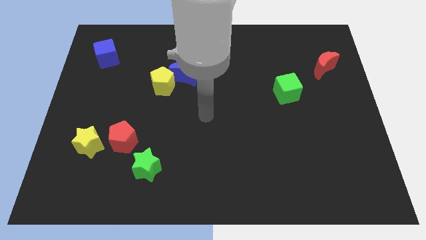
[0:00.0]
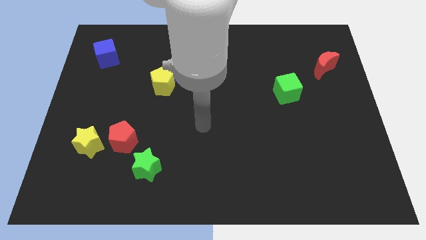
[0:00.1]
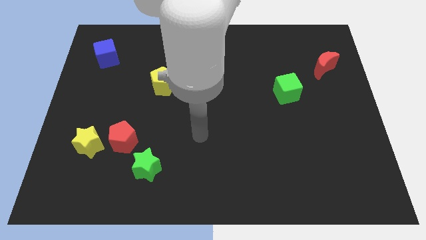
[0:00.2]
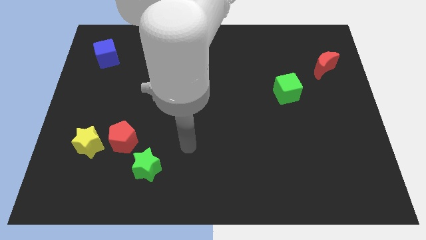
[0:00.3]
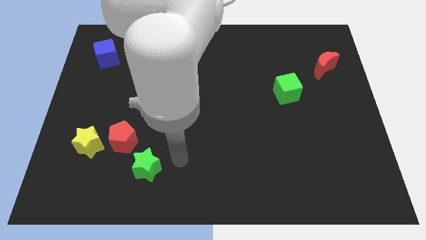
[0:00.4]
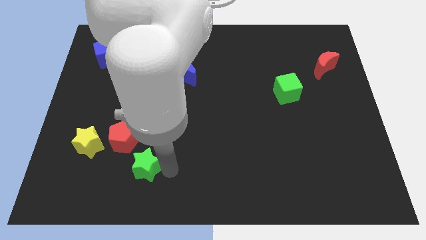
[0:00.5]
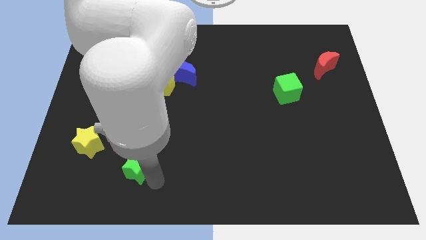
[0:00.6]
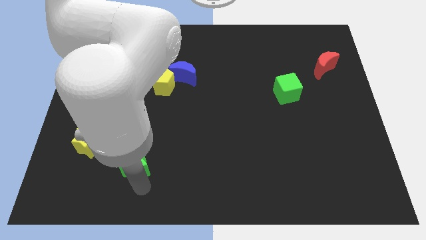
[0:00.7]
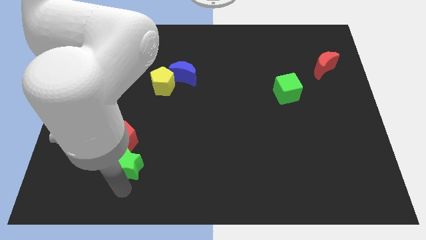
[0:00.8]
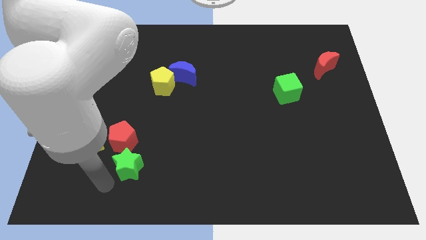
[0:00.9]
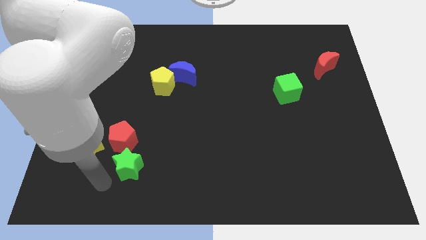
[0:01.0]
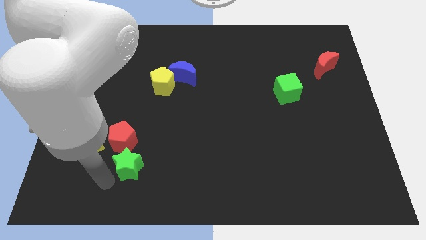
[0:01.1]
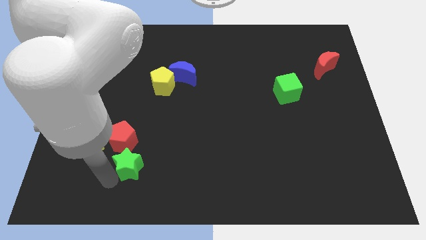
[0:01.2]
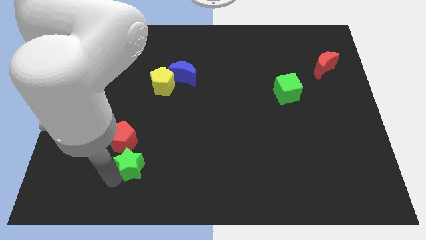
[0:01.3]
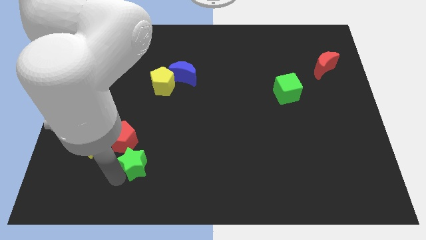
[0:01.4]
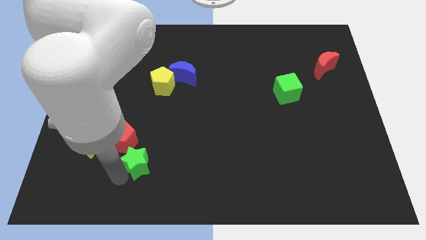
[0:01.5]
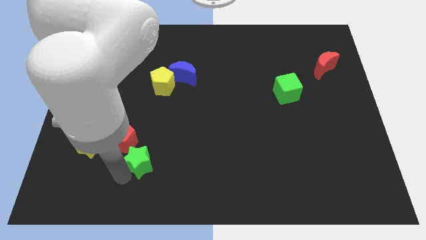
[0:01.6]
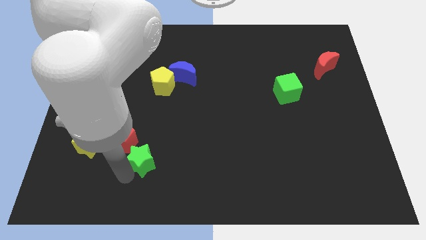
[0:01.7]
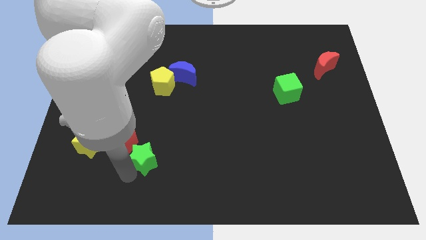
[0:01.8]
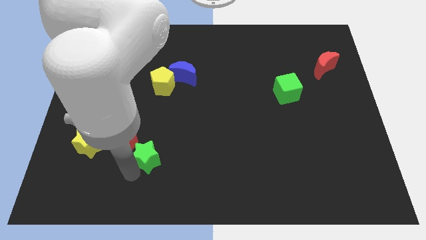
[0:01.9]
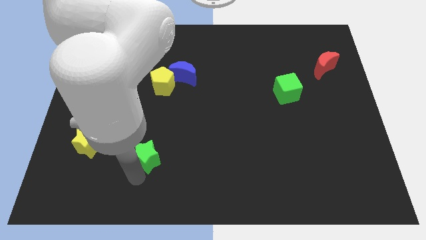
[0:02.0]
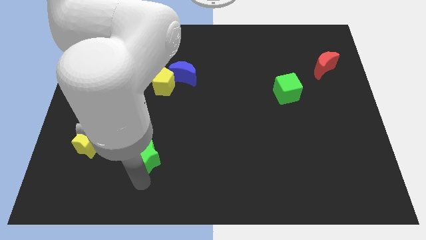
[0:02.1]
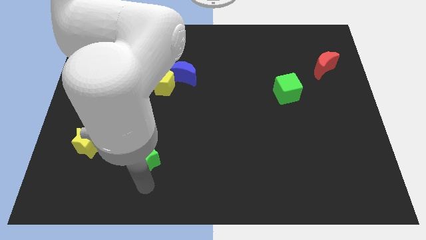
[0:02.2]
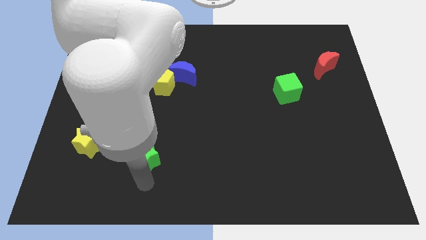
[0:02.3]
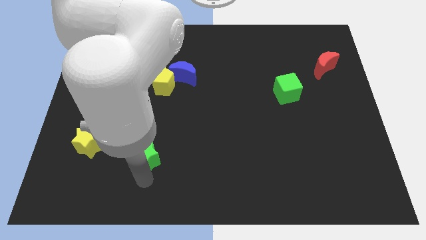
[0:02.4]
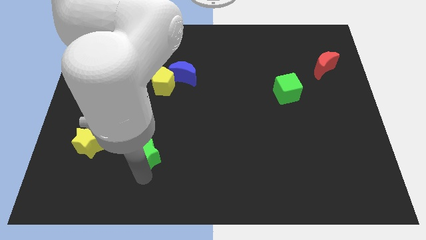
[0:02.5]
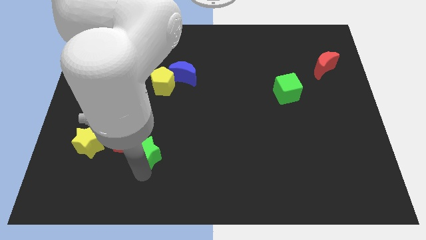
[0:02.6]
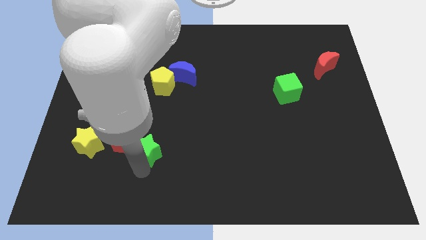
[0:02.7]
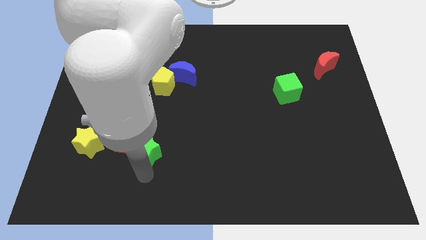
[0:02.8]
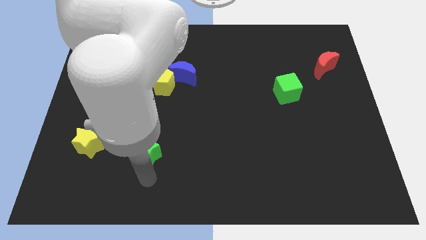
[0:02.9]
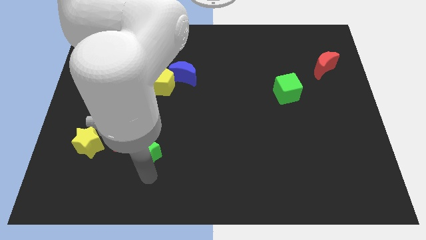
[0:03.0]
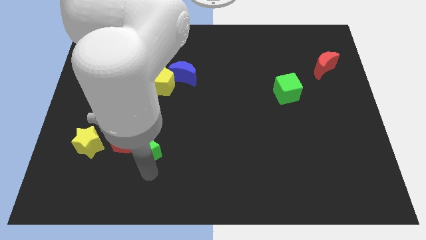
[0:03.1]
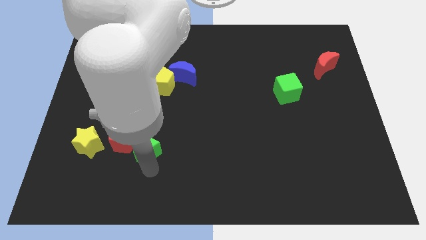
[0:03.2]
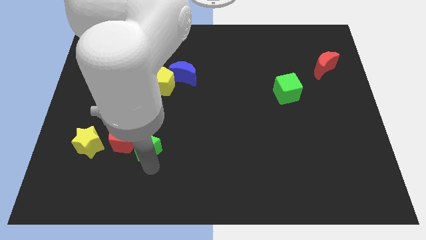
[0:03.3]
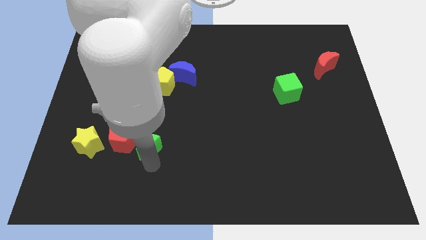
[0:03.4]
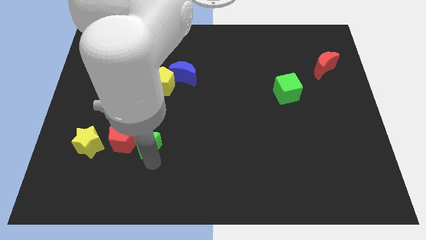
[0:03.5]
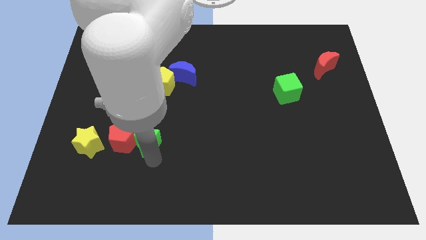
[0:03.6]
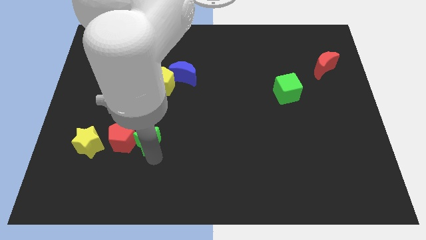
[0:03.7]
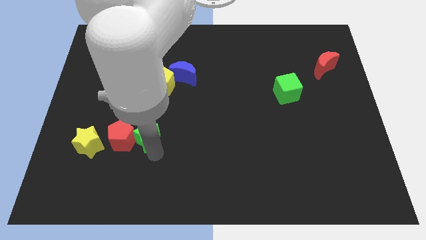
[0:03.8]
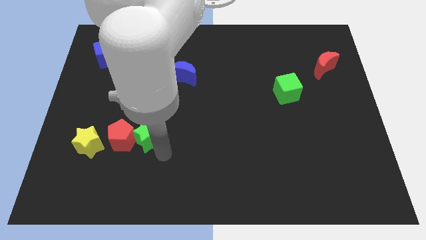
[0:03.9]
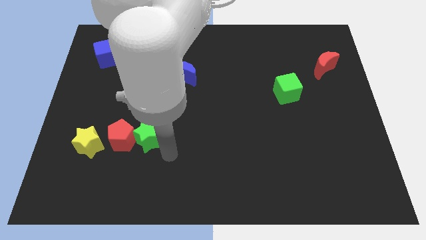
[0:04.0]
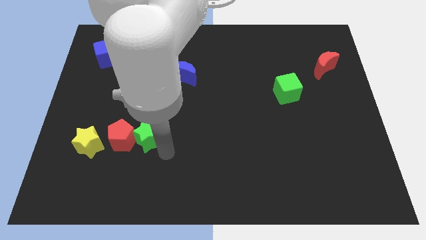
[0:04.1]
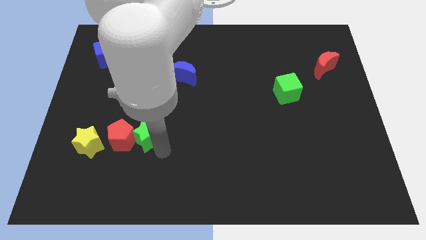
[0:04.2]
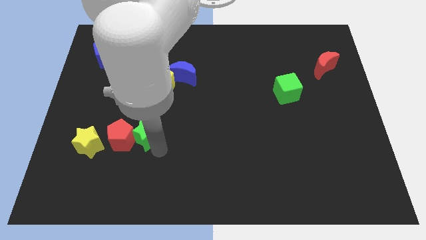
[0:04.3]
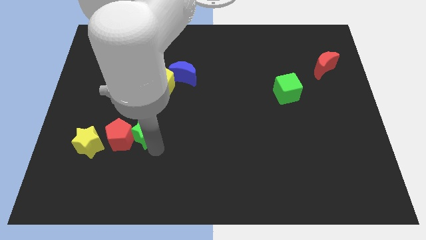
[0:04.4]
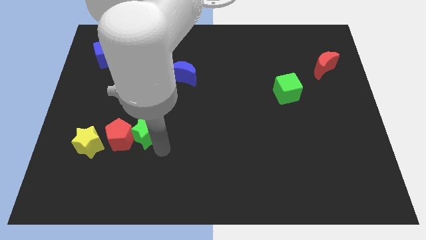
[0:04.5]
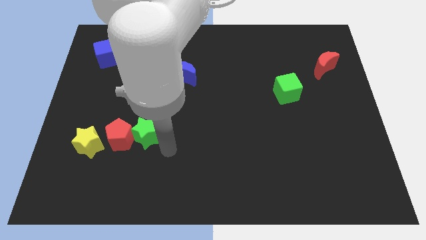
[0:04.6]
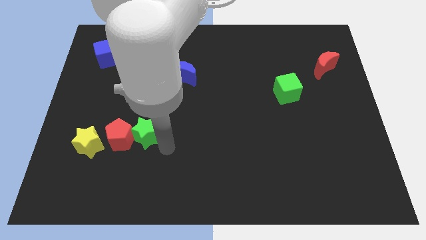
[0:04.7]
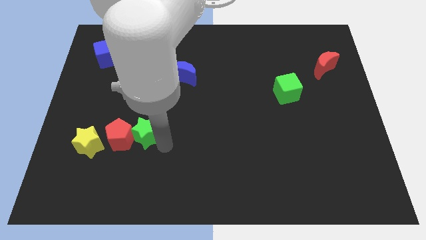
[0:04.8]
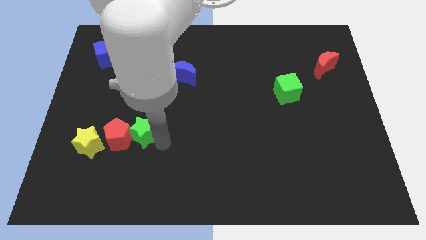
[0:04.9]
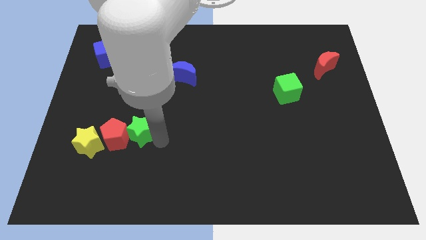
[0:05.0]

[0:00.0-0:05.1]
slightly slide the green star up and to the left

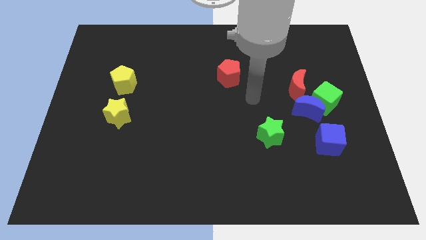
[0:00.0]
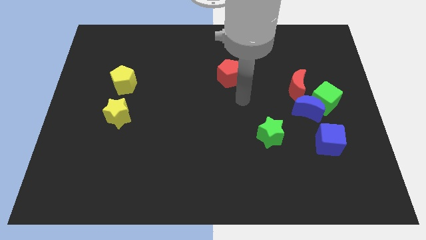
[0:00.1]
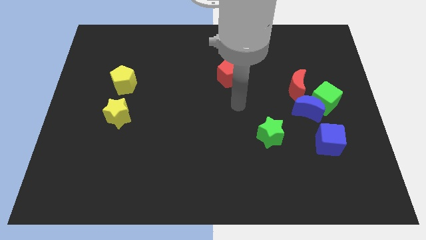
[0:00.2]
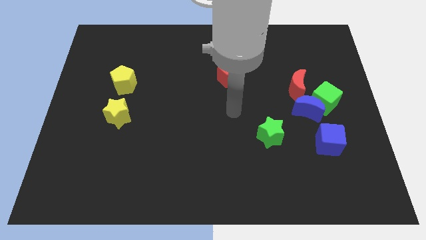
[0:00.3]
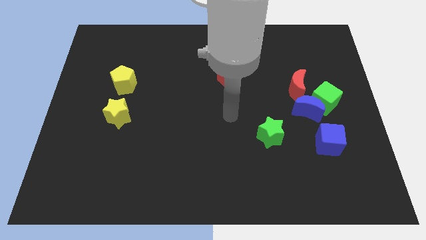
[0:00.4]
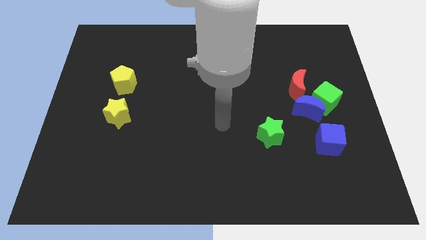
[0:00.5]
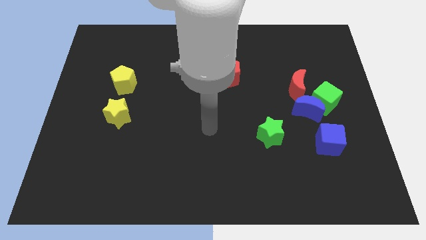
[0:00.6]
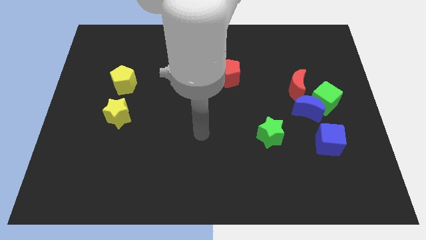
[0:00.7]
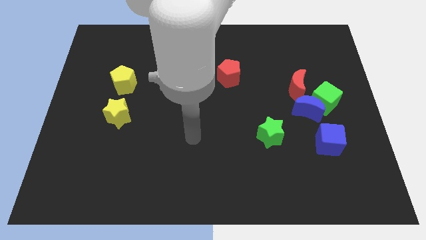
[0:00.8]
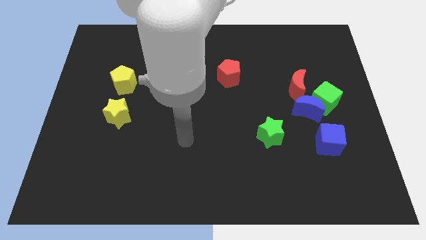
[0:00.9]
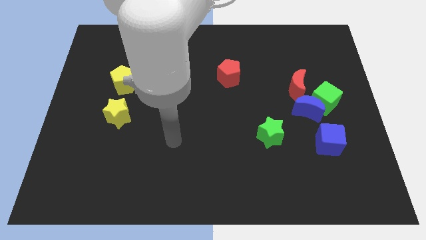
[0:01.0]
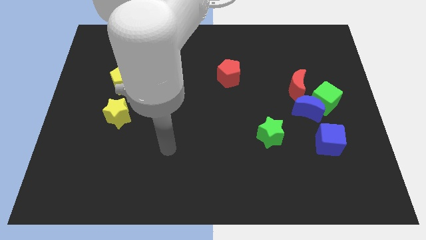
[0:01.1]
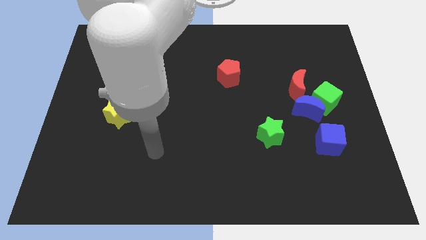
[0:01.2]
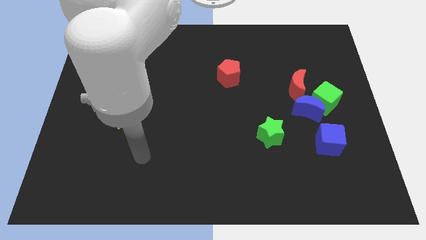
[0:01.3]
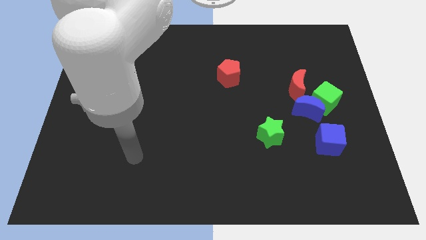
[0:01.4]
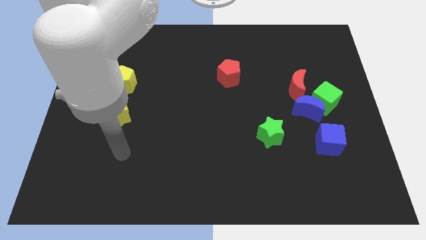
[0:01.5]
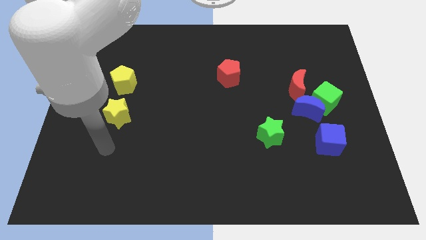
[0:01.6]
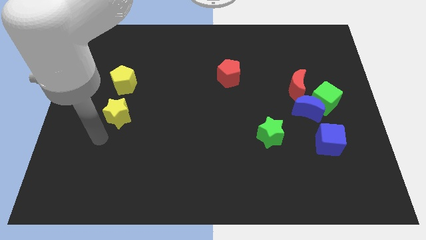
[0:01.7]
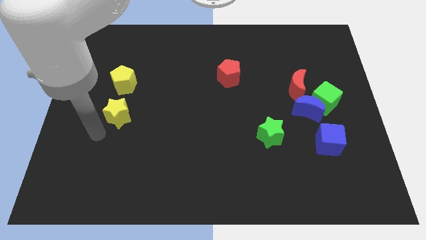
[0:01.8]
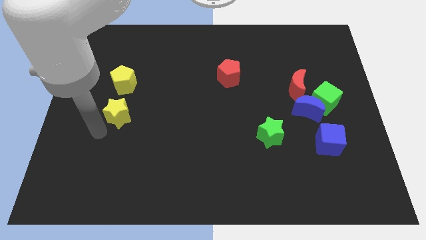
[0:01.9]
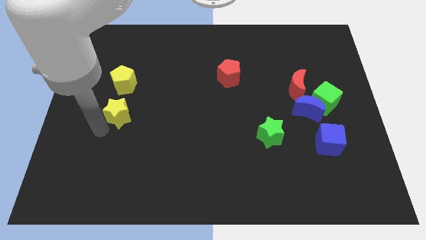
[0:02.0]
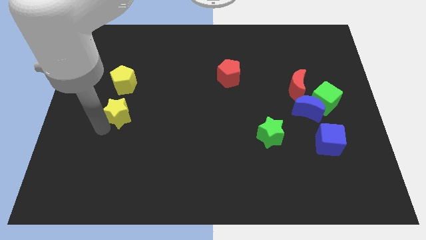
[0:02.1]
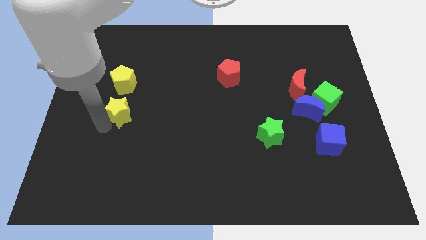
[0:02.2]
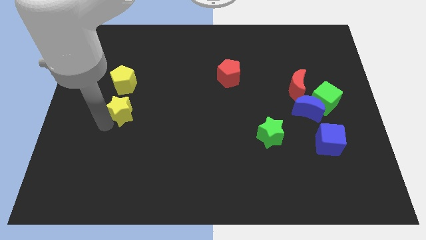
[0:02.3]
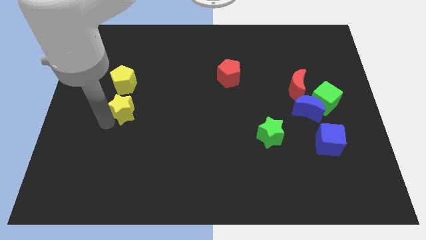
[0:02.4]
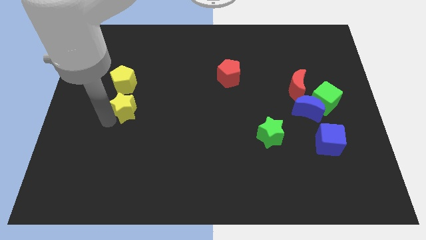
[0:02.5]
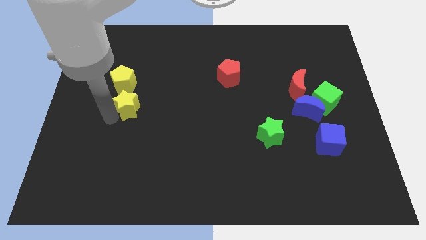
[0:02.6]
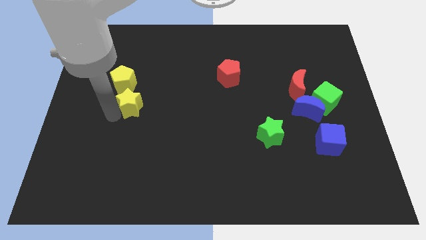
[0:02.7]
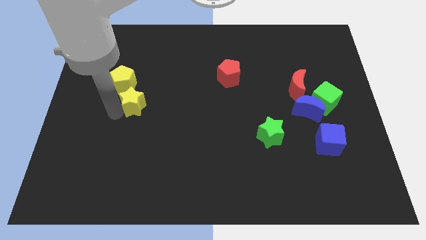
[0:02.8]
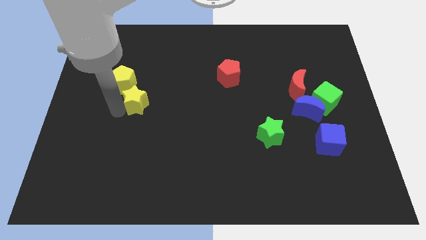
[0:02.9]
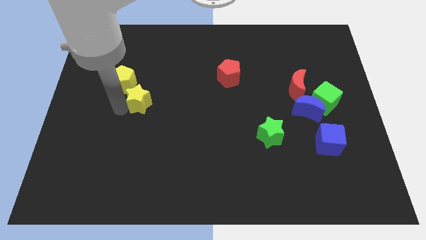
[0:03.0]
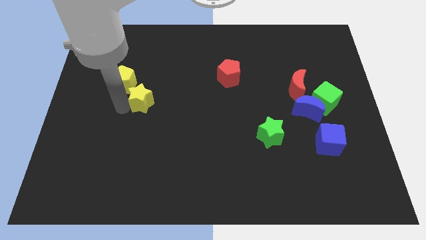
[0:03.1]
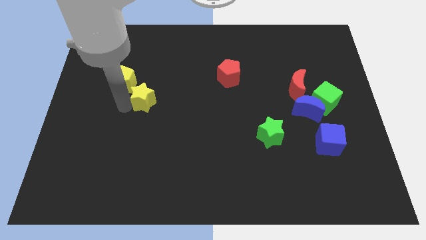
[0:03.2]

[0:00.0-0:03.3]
push the yellow star slightly diagonally upwards and right
